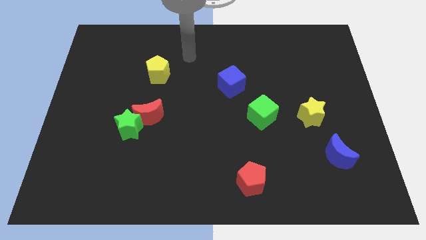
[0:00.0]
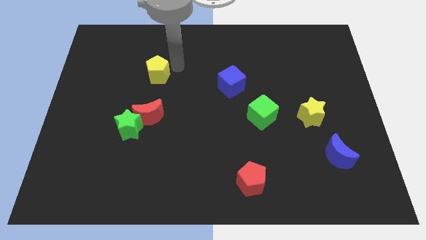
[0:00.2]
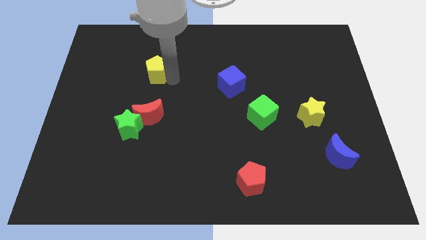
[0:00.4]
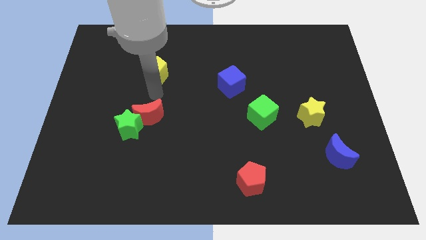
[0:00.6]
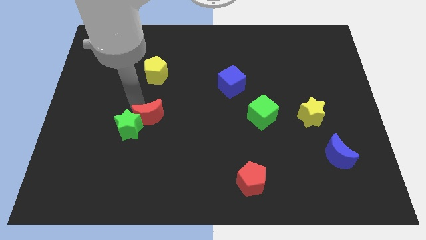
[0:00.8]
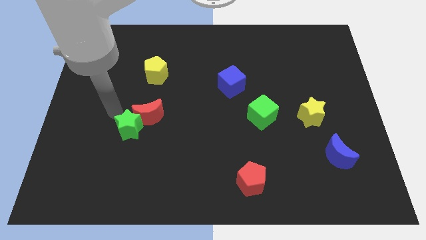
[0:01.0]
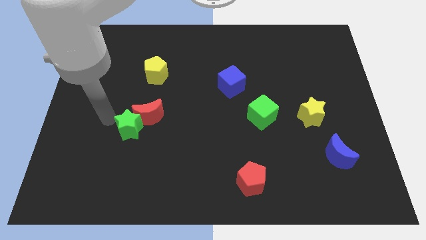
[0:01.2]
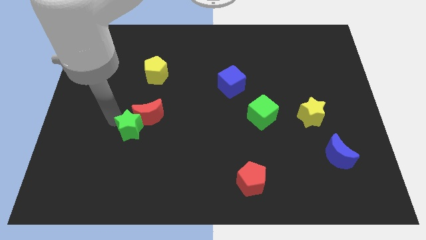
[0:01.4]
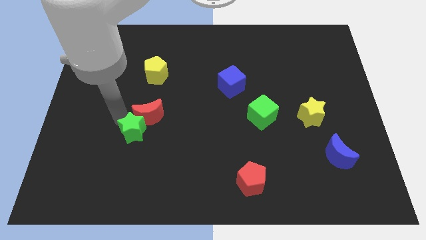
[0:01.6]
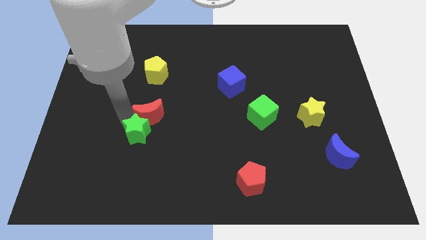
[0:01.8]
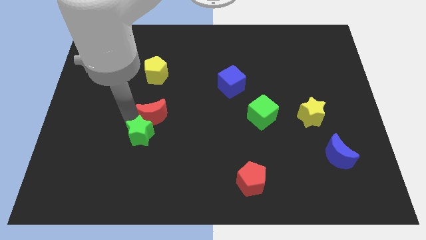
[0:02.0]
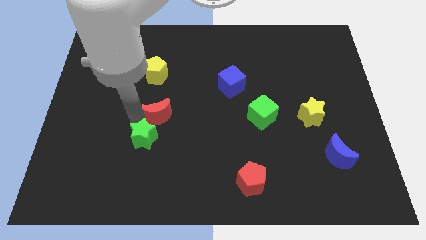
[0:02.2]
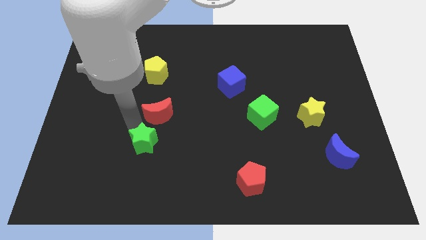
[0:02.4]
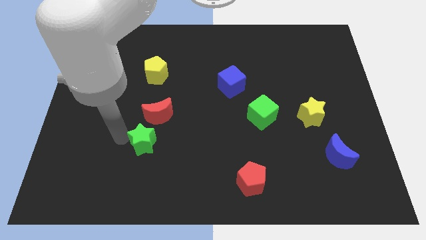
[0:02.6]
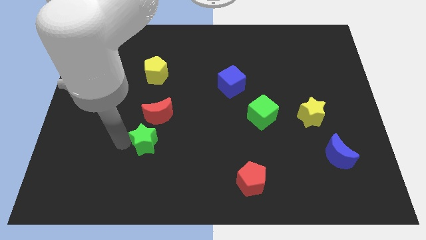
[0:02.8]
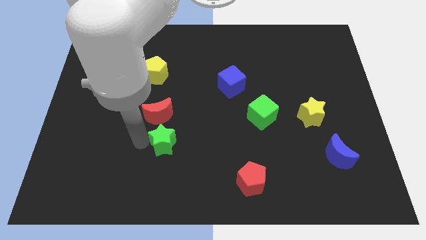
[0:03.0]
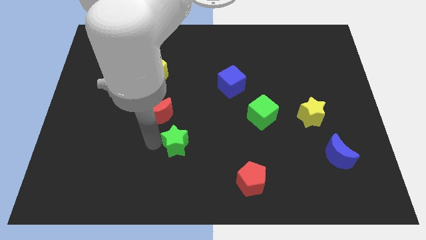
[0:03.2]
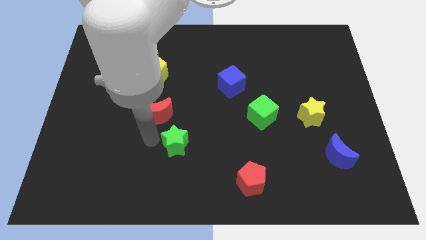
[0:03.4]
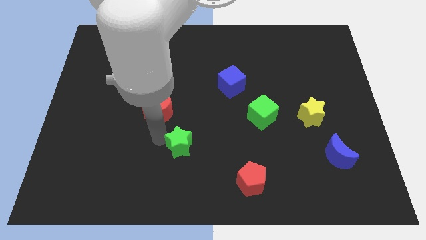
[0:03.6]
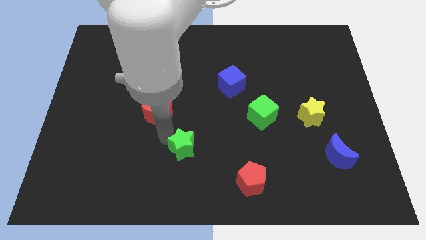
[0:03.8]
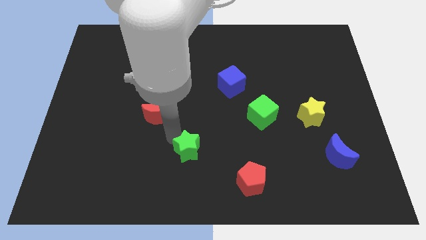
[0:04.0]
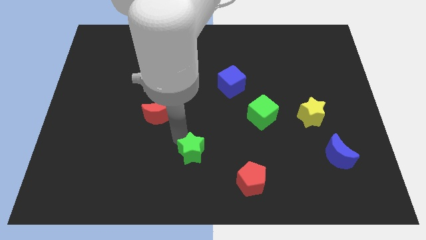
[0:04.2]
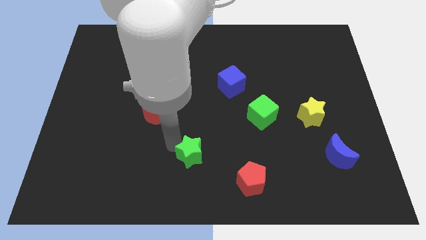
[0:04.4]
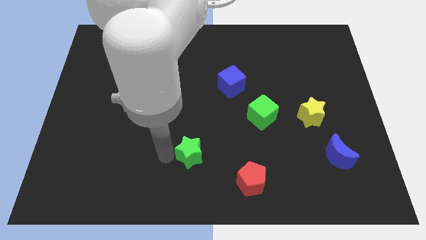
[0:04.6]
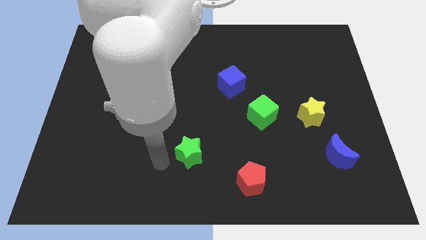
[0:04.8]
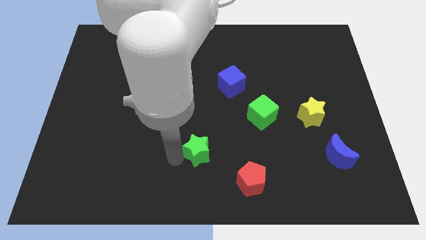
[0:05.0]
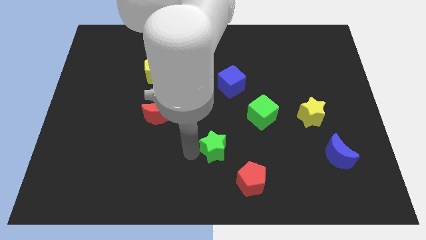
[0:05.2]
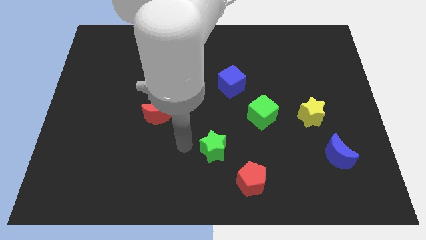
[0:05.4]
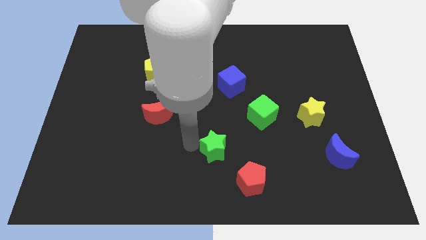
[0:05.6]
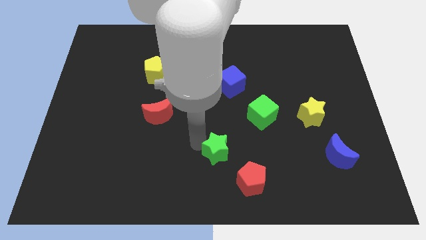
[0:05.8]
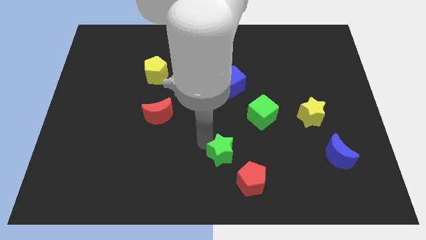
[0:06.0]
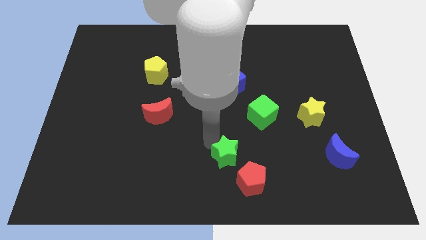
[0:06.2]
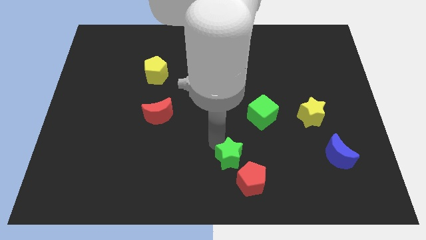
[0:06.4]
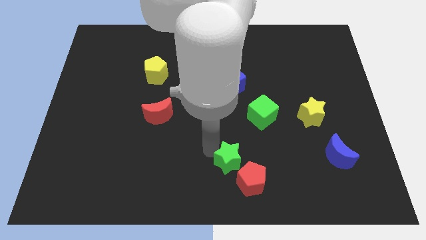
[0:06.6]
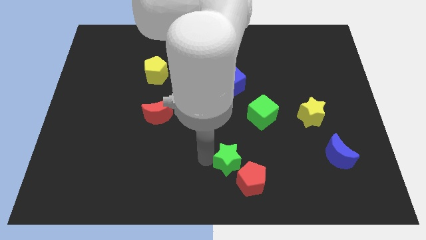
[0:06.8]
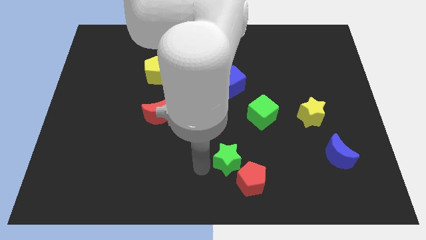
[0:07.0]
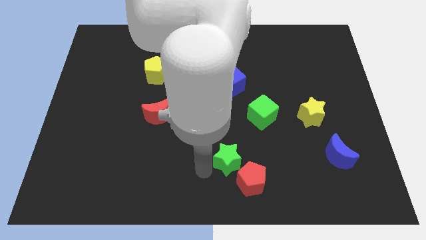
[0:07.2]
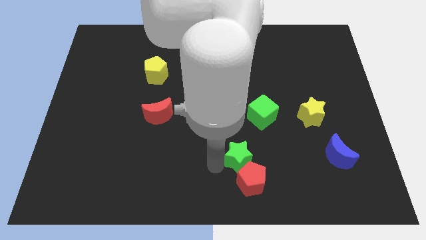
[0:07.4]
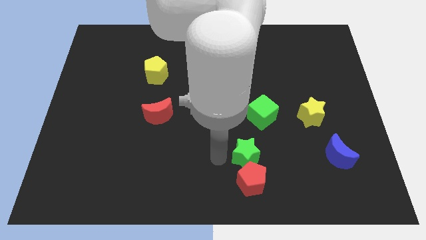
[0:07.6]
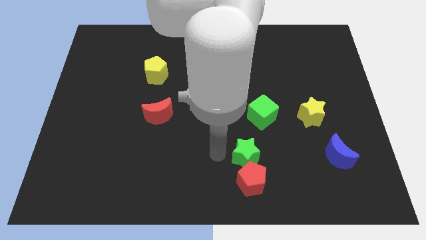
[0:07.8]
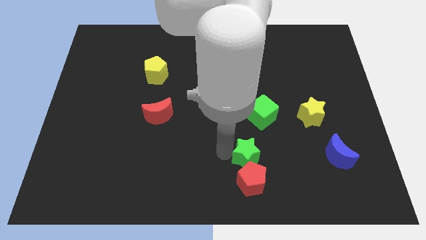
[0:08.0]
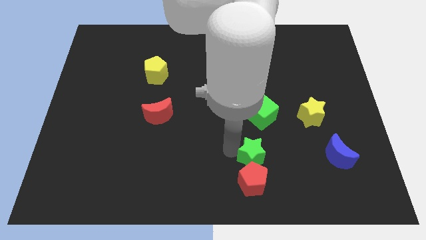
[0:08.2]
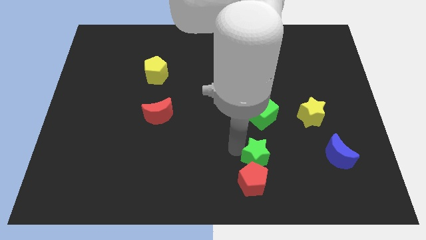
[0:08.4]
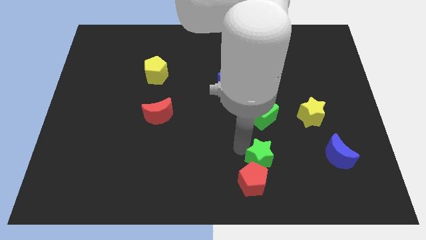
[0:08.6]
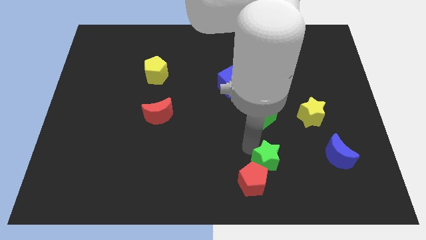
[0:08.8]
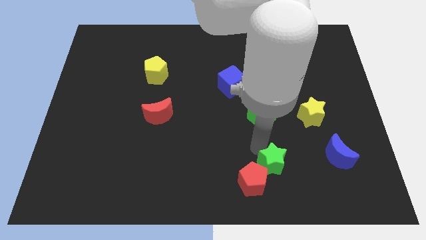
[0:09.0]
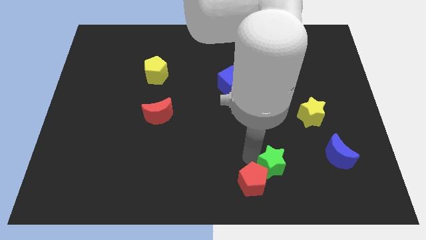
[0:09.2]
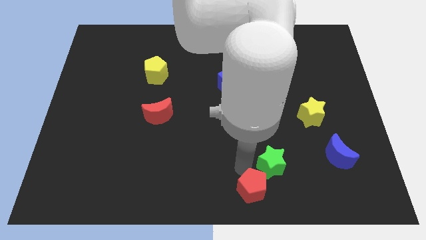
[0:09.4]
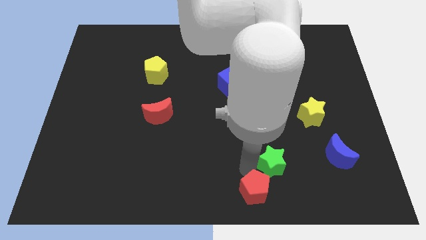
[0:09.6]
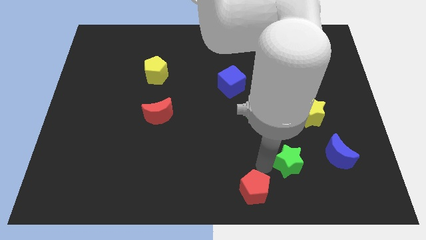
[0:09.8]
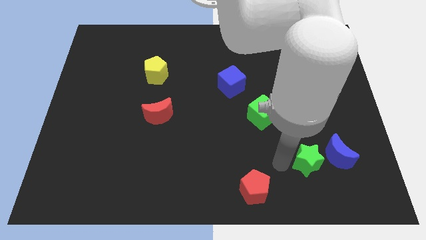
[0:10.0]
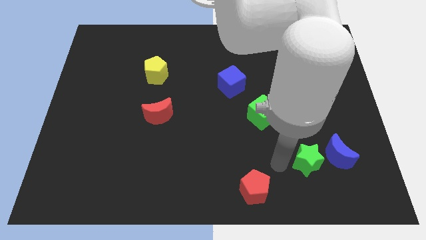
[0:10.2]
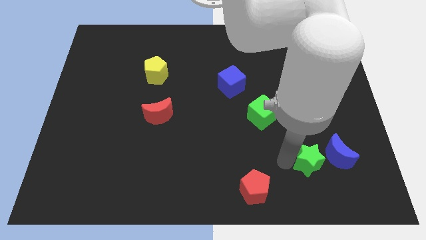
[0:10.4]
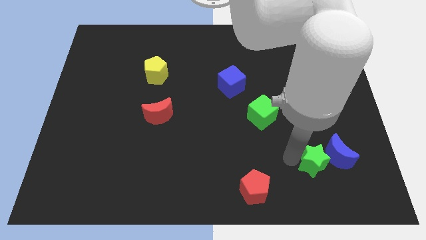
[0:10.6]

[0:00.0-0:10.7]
slide the green star to the blue moon

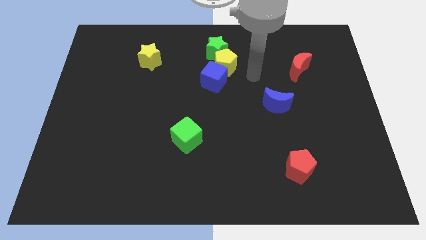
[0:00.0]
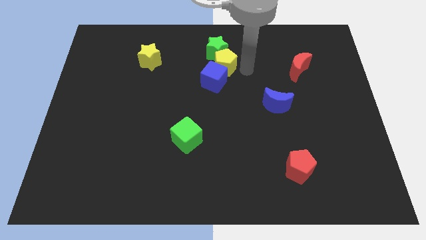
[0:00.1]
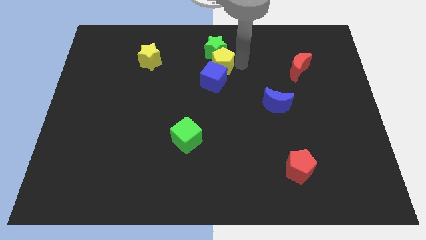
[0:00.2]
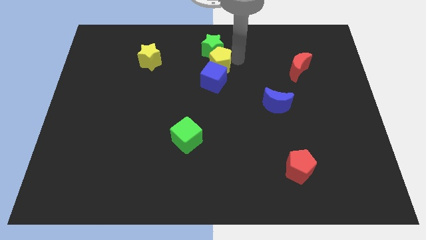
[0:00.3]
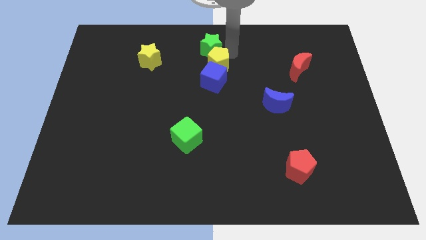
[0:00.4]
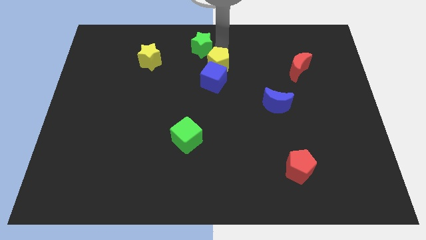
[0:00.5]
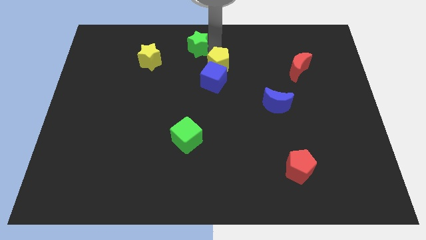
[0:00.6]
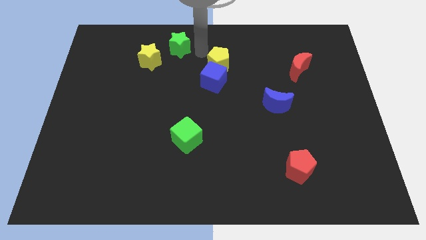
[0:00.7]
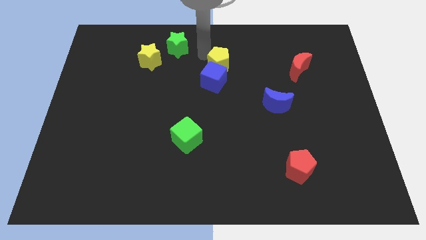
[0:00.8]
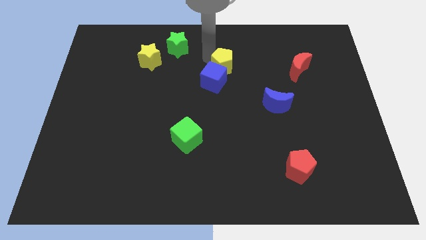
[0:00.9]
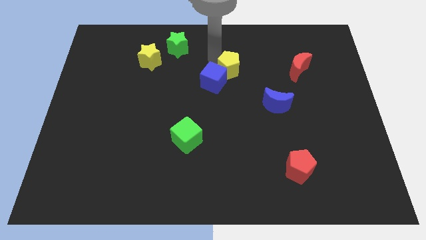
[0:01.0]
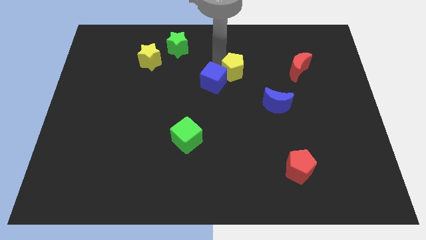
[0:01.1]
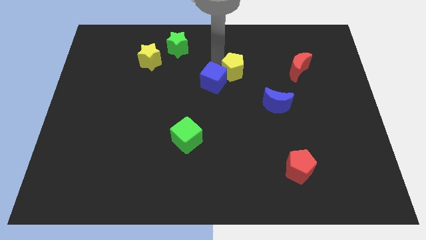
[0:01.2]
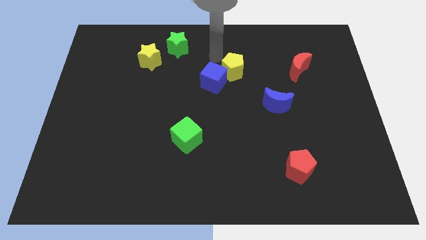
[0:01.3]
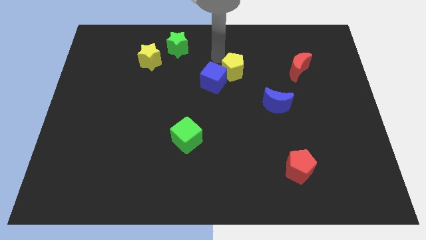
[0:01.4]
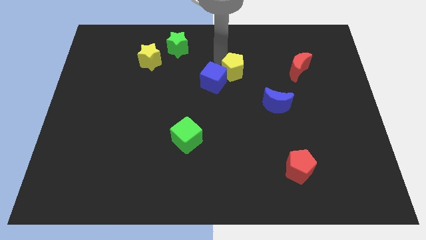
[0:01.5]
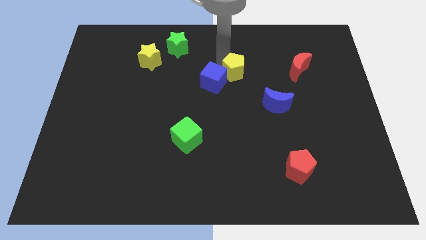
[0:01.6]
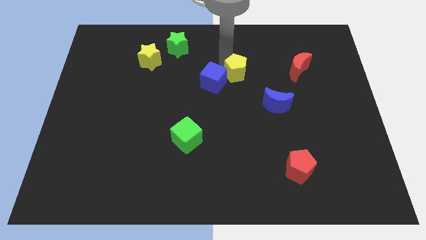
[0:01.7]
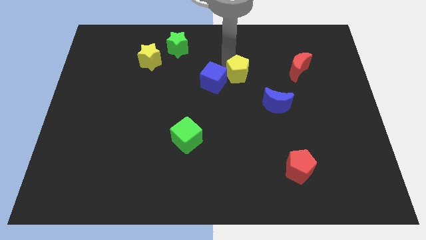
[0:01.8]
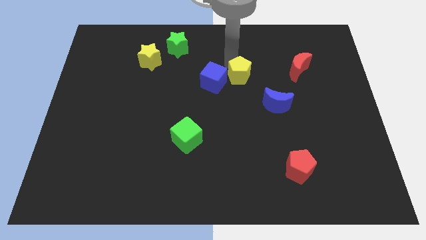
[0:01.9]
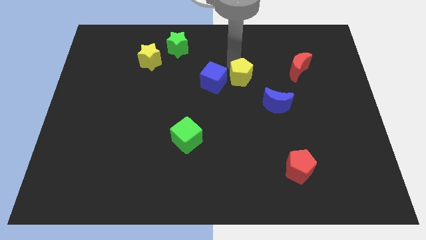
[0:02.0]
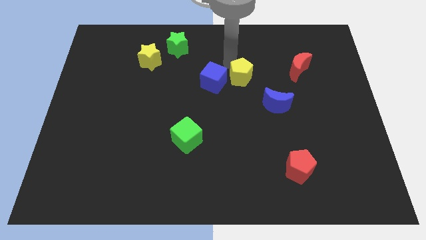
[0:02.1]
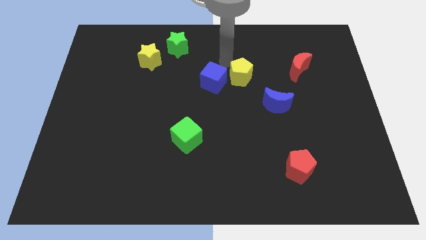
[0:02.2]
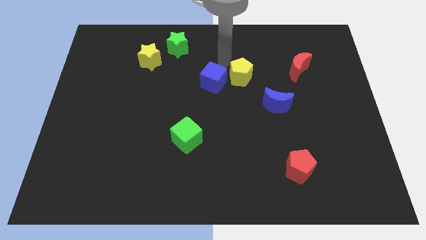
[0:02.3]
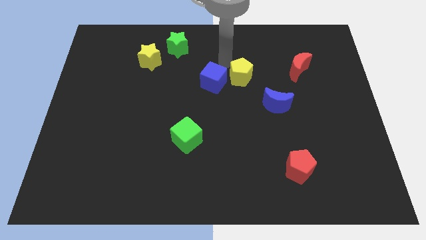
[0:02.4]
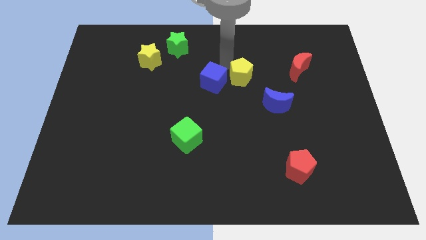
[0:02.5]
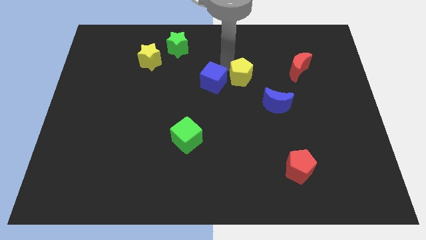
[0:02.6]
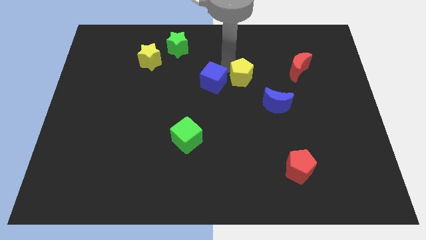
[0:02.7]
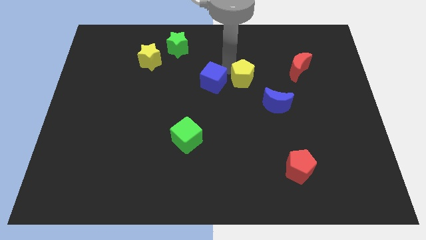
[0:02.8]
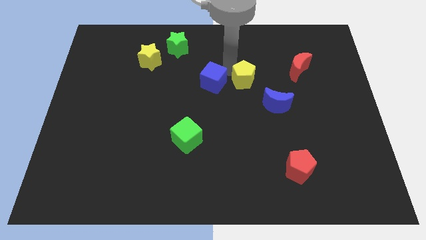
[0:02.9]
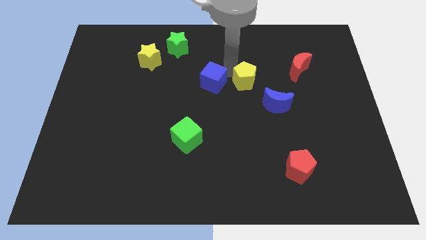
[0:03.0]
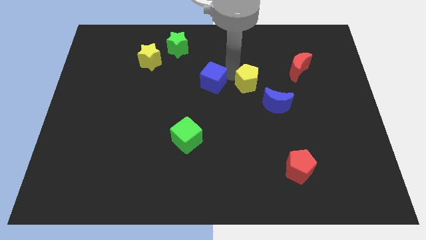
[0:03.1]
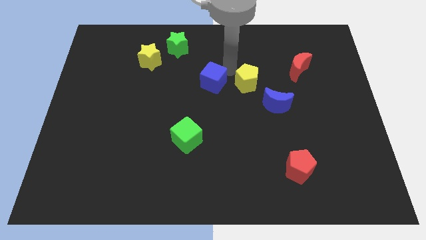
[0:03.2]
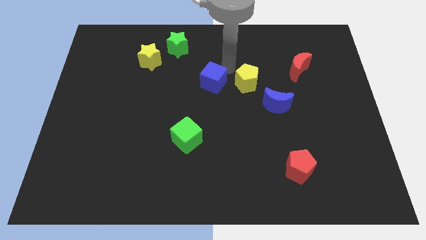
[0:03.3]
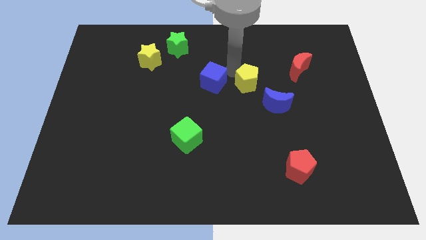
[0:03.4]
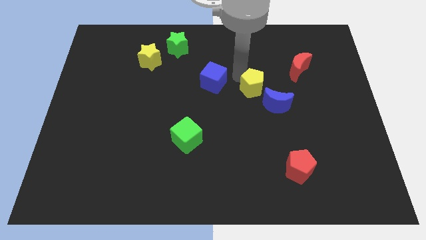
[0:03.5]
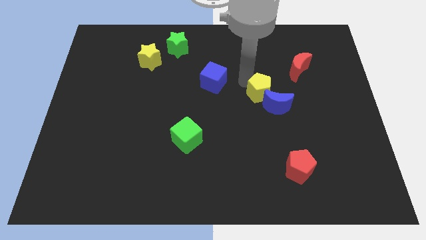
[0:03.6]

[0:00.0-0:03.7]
push the yellow pentagon next to the blue moon
